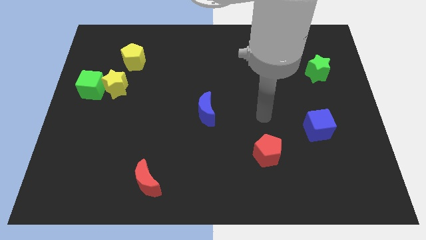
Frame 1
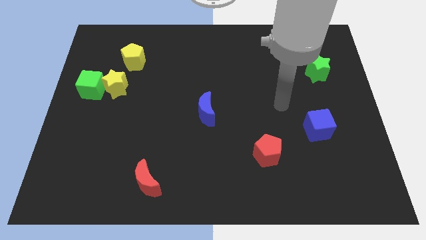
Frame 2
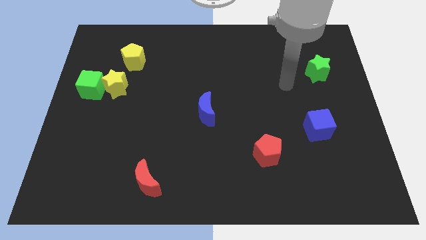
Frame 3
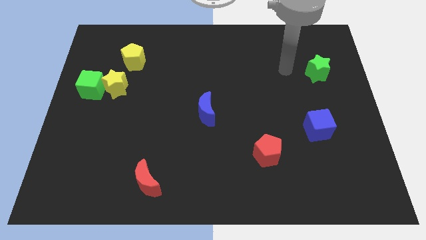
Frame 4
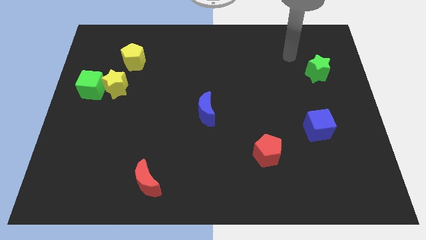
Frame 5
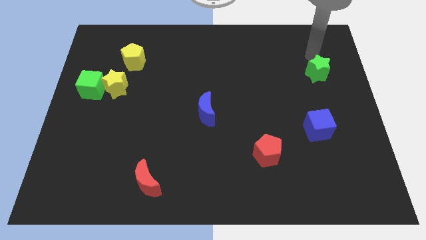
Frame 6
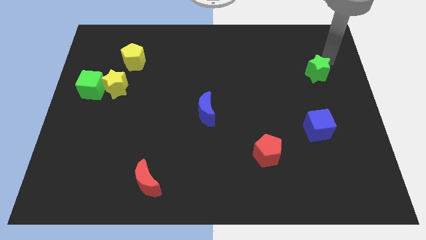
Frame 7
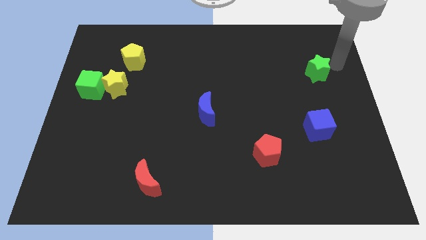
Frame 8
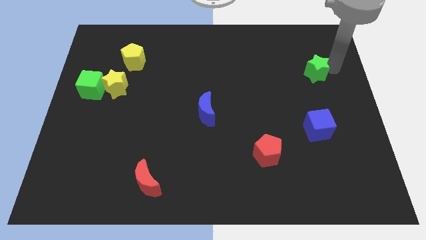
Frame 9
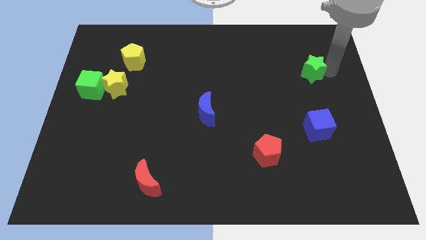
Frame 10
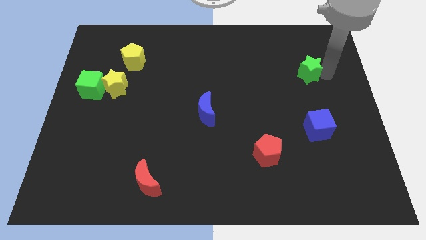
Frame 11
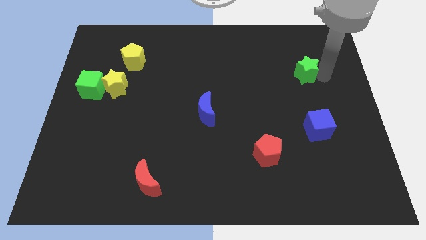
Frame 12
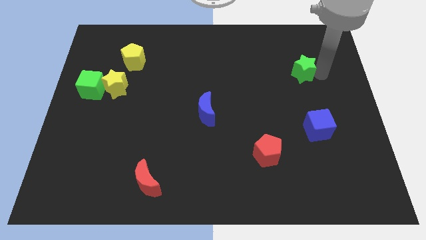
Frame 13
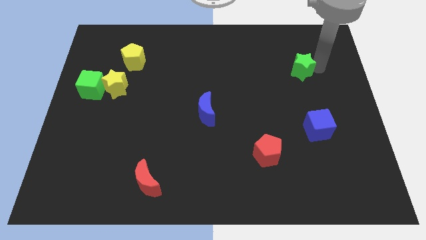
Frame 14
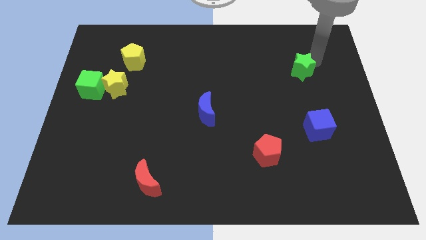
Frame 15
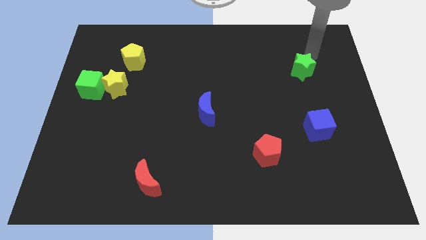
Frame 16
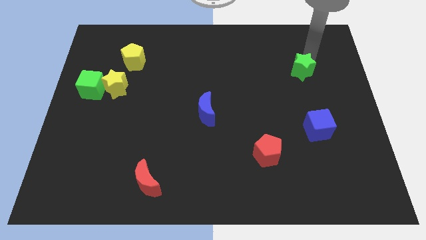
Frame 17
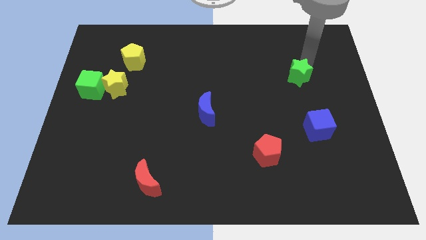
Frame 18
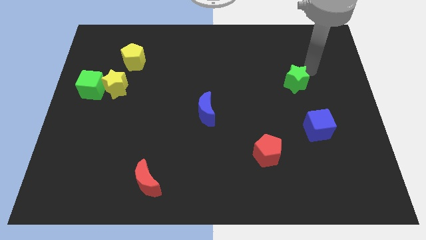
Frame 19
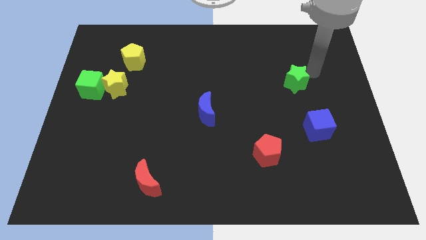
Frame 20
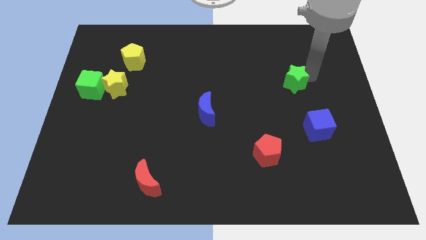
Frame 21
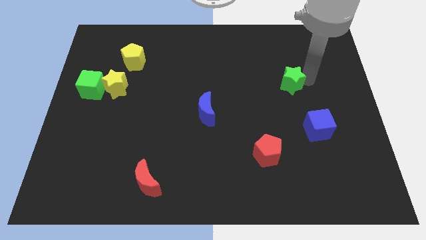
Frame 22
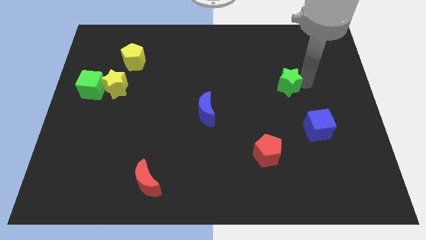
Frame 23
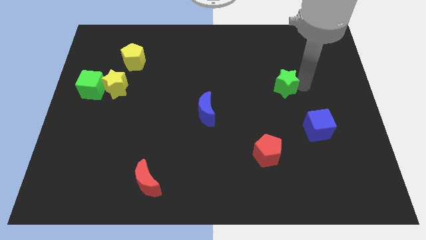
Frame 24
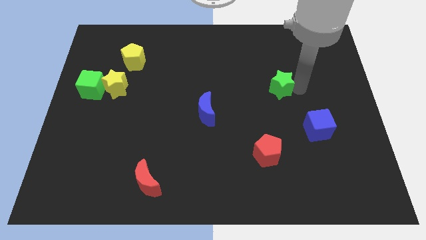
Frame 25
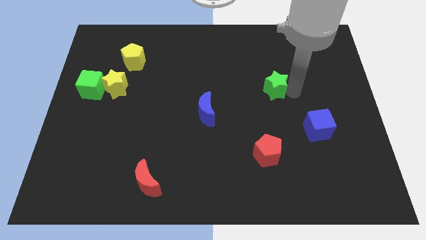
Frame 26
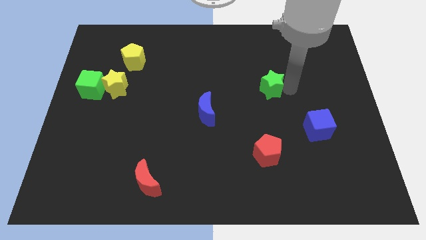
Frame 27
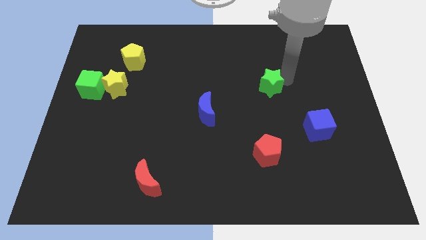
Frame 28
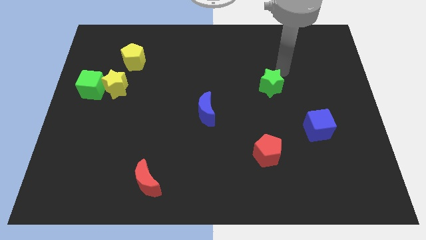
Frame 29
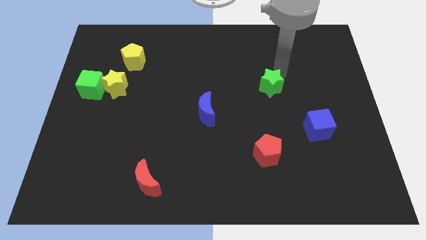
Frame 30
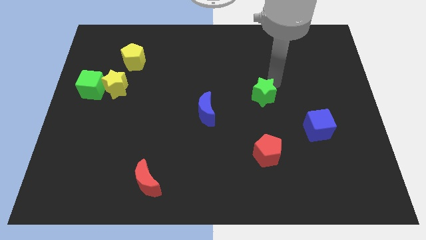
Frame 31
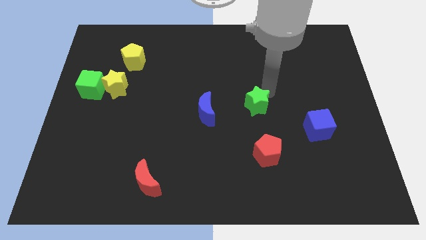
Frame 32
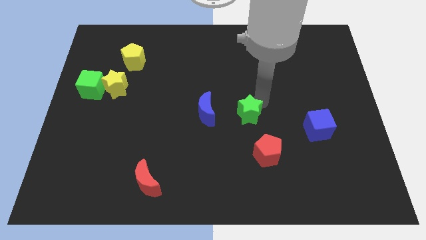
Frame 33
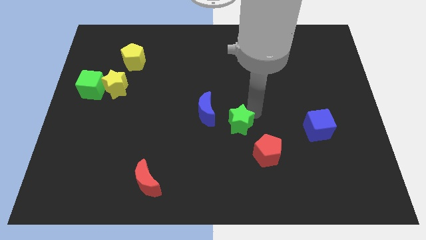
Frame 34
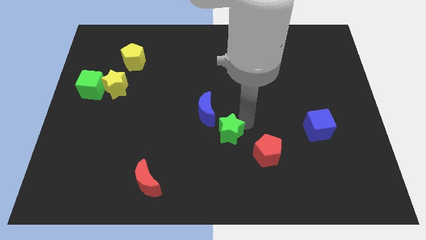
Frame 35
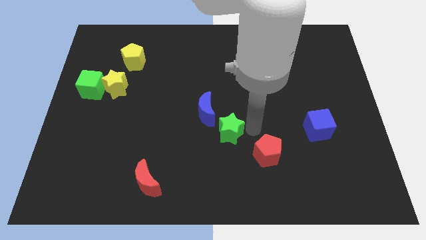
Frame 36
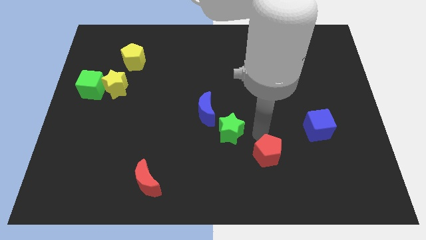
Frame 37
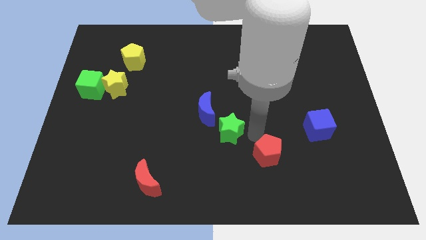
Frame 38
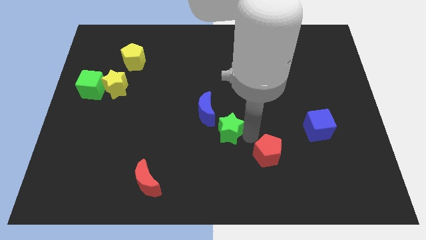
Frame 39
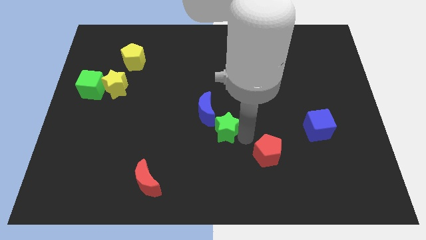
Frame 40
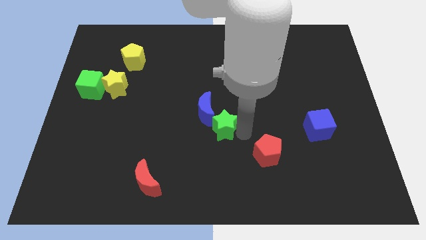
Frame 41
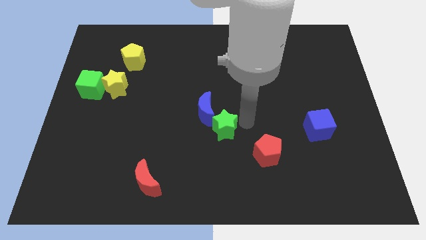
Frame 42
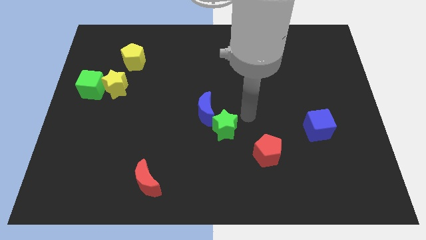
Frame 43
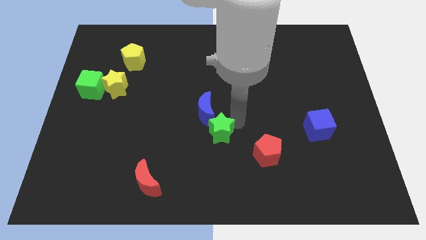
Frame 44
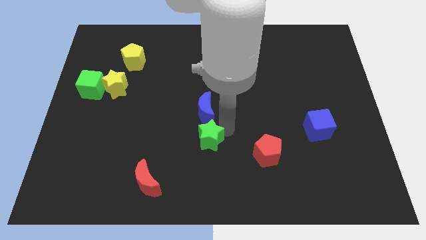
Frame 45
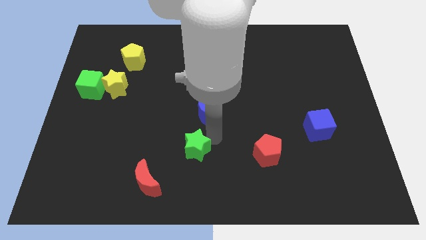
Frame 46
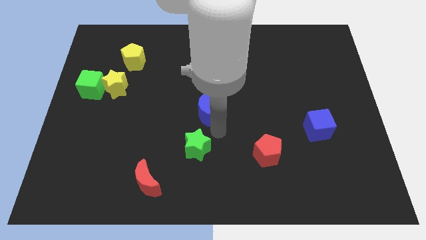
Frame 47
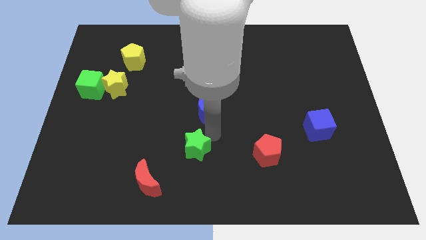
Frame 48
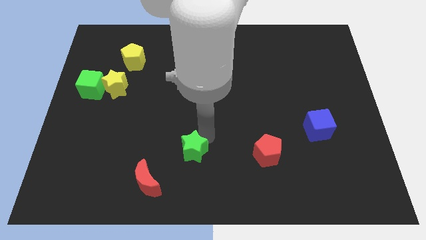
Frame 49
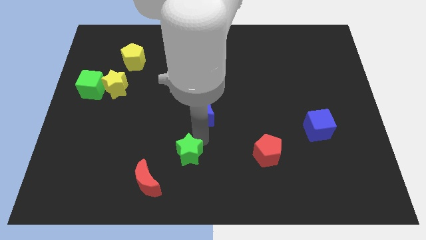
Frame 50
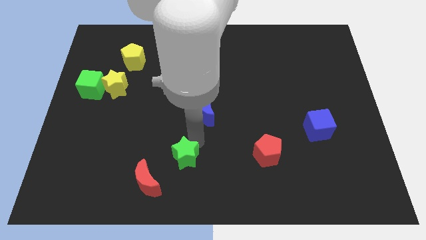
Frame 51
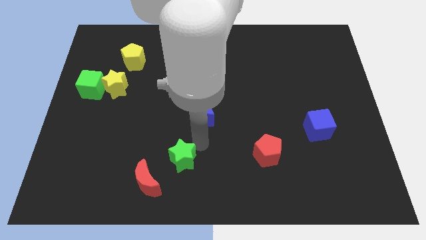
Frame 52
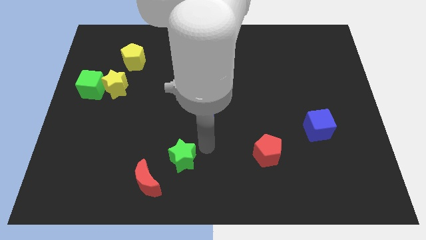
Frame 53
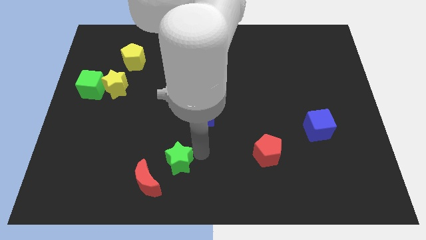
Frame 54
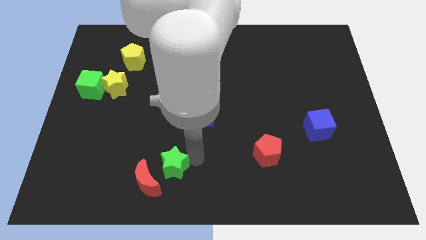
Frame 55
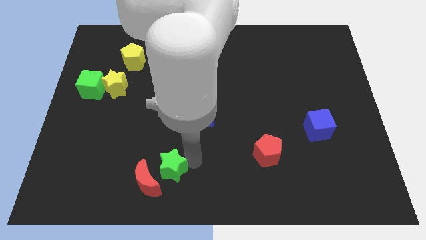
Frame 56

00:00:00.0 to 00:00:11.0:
move the green star towards the red moon

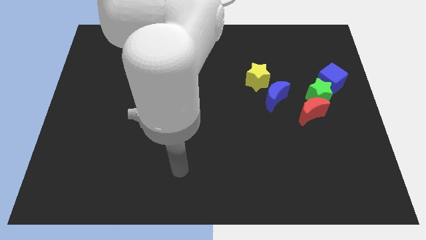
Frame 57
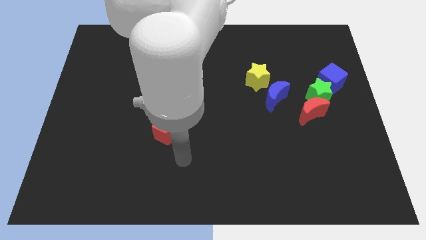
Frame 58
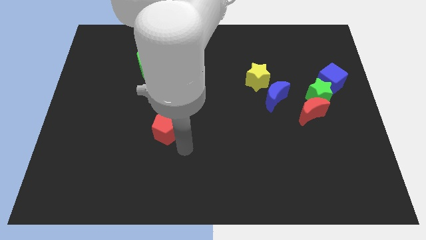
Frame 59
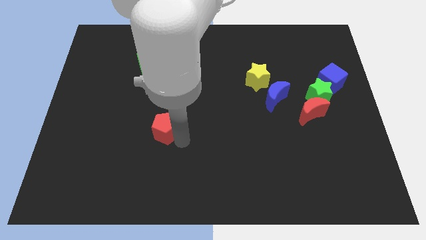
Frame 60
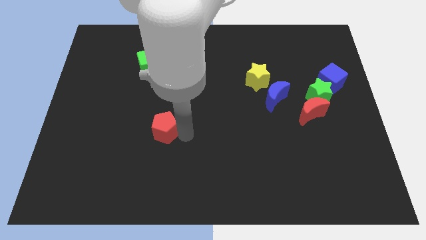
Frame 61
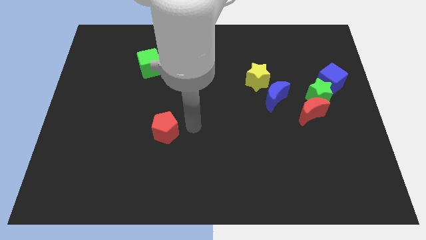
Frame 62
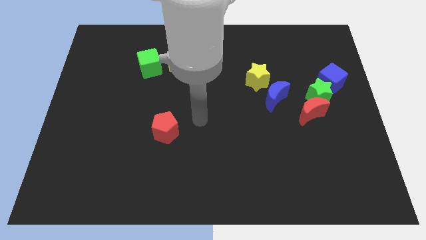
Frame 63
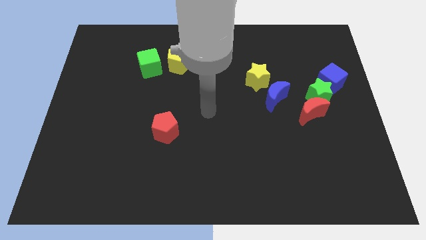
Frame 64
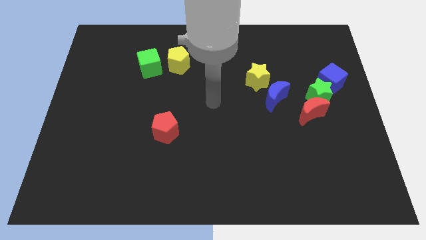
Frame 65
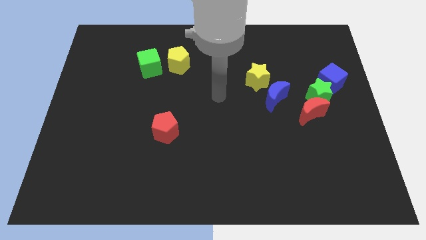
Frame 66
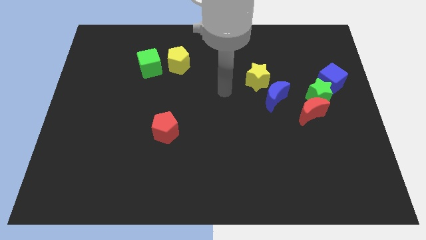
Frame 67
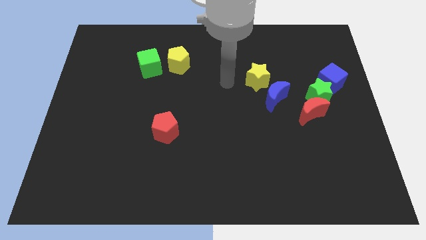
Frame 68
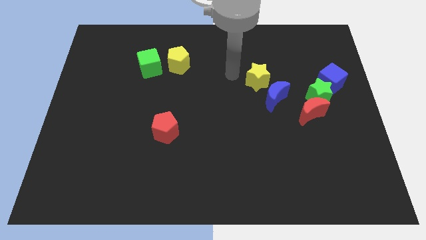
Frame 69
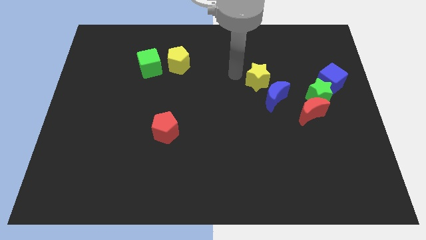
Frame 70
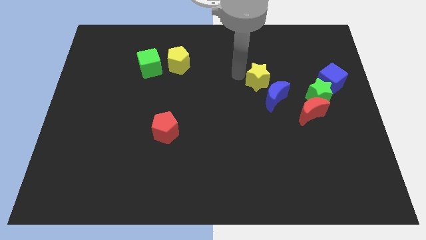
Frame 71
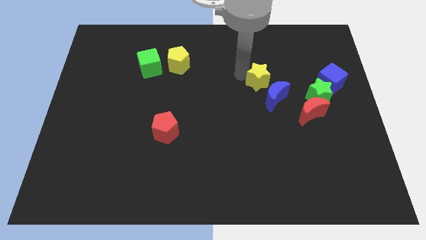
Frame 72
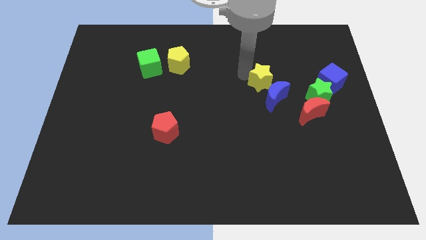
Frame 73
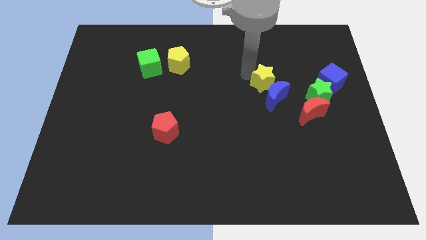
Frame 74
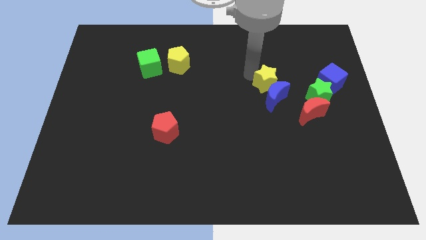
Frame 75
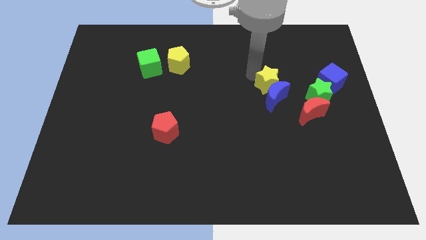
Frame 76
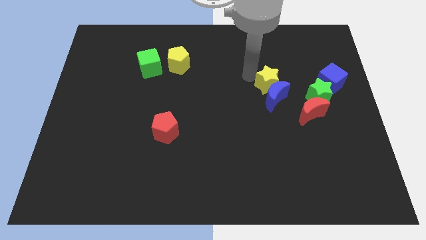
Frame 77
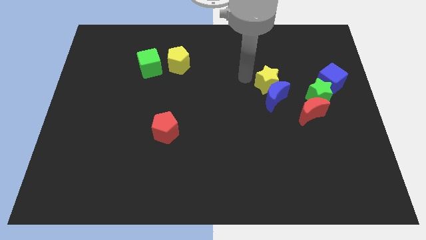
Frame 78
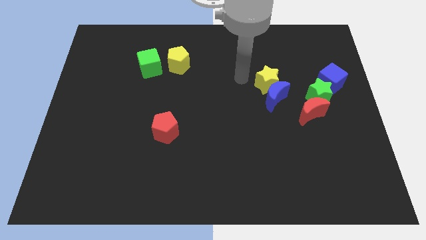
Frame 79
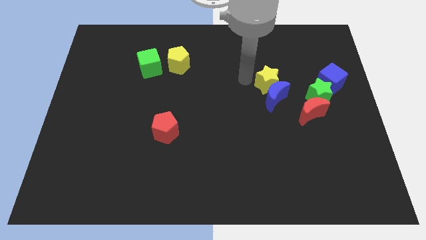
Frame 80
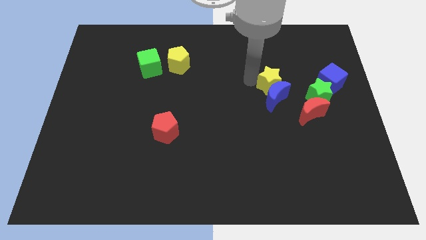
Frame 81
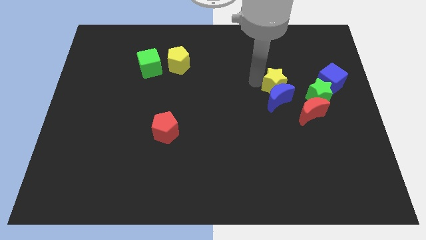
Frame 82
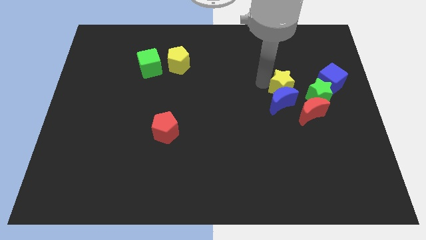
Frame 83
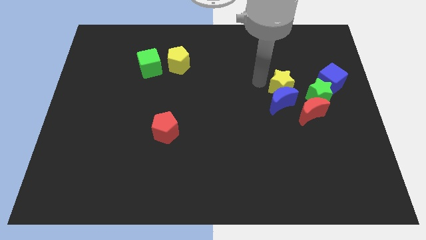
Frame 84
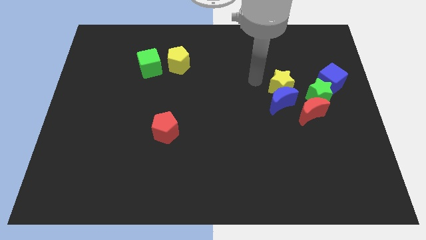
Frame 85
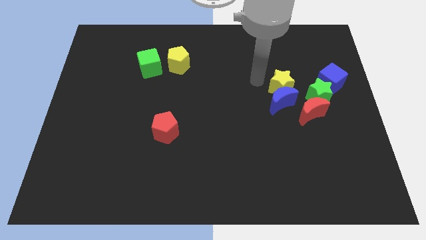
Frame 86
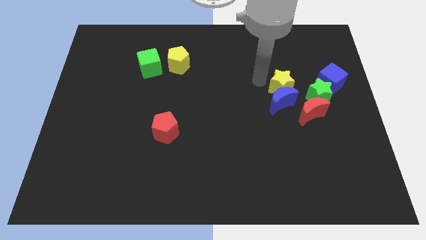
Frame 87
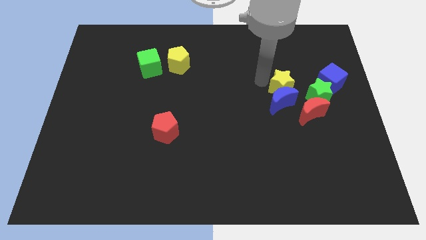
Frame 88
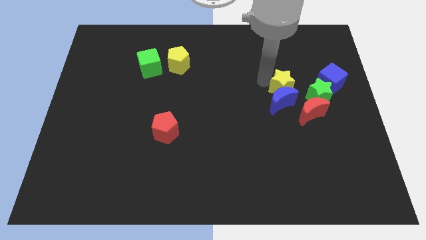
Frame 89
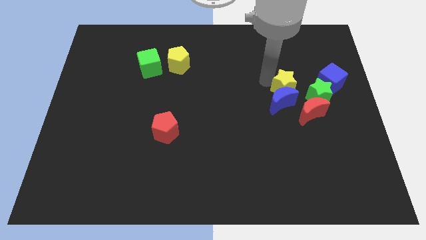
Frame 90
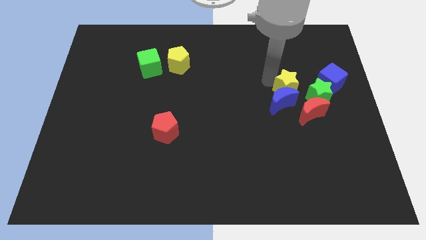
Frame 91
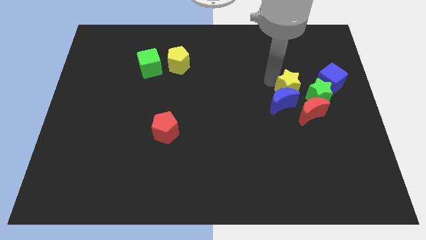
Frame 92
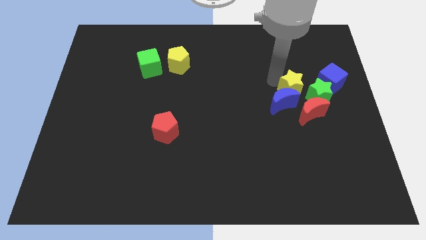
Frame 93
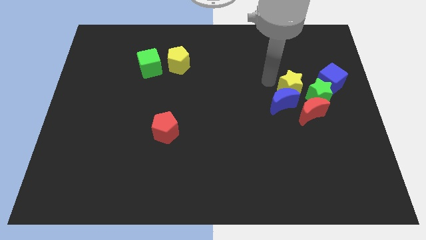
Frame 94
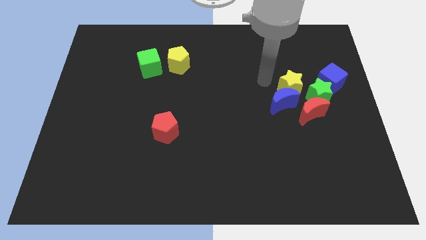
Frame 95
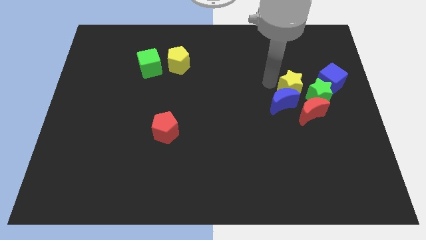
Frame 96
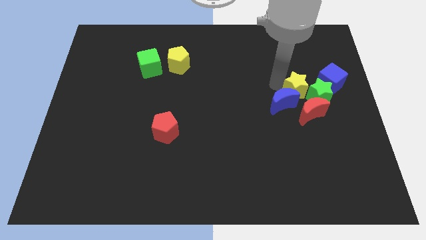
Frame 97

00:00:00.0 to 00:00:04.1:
slide the yellow star close to the green star
